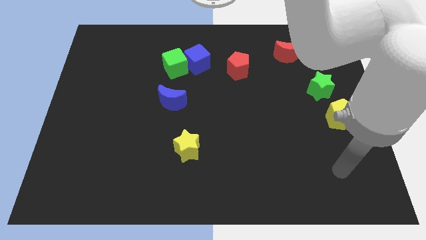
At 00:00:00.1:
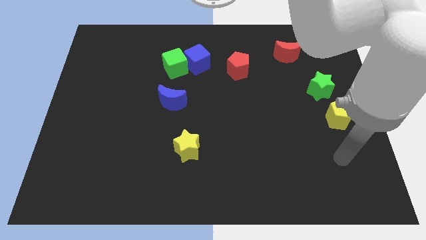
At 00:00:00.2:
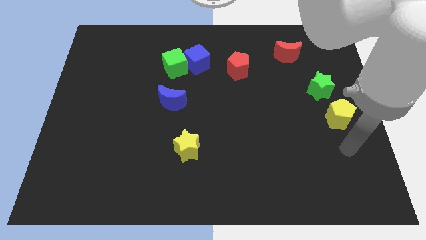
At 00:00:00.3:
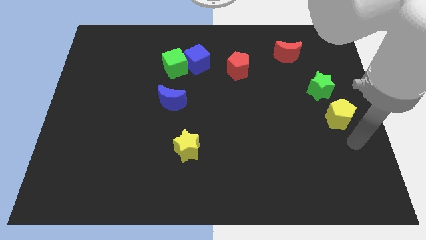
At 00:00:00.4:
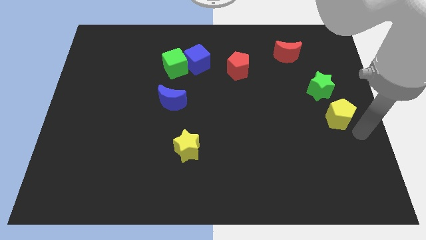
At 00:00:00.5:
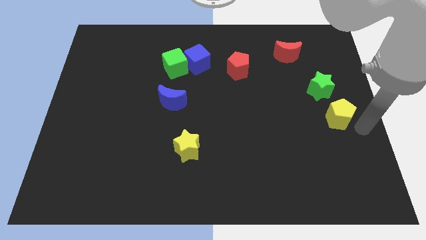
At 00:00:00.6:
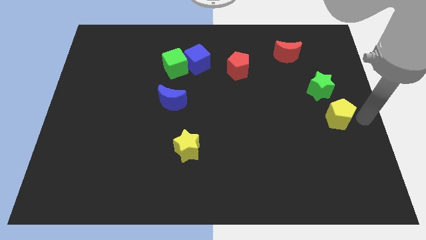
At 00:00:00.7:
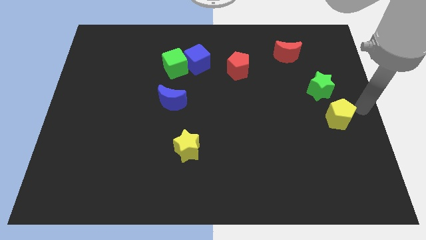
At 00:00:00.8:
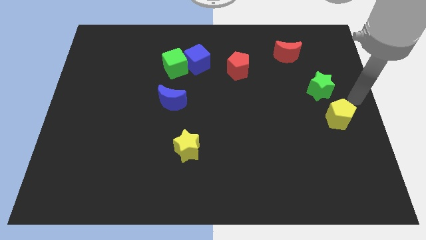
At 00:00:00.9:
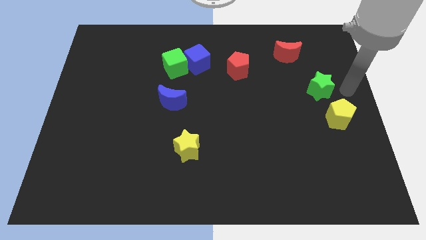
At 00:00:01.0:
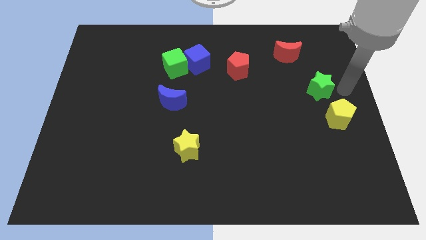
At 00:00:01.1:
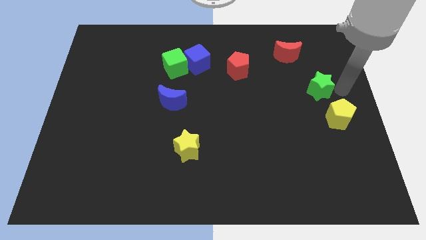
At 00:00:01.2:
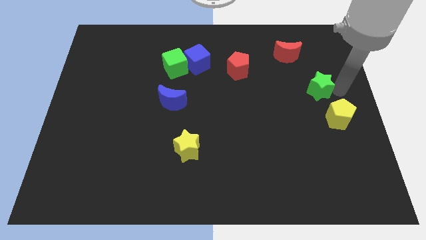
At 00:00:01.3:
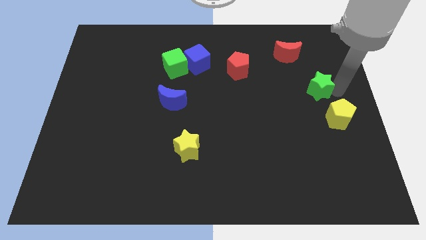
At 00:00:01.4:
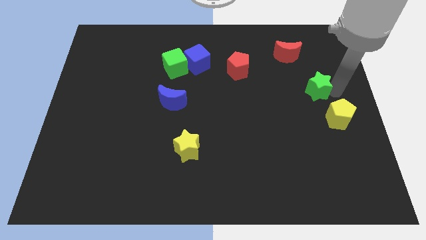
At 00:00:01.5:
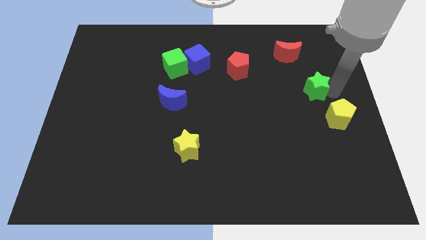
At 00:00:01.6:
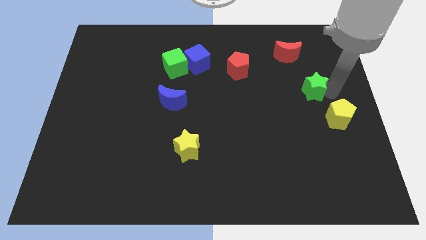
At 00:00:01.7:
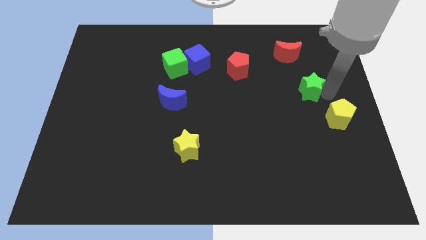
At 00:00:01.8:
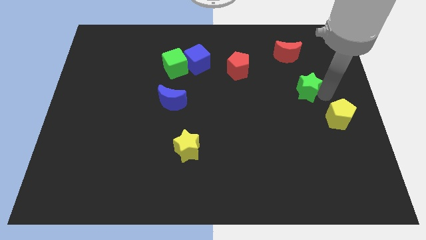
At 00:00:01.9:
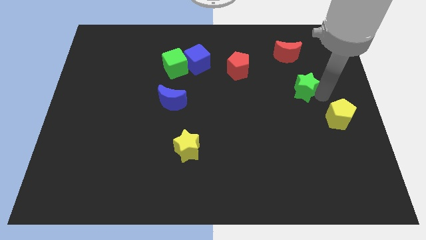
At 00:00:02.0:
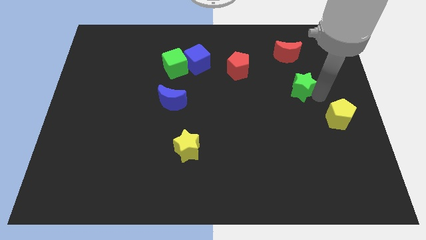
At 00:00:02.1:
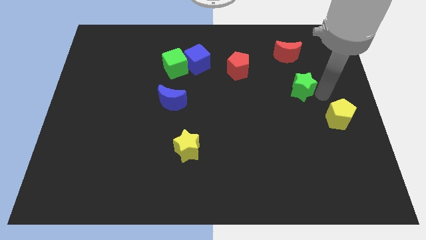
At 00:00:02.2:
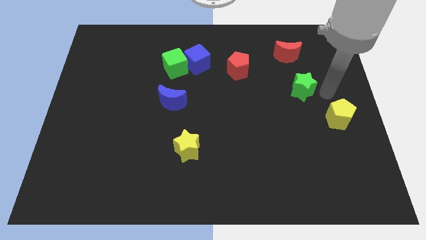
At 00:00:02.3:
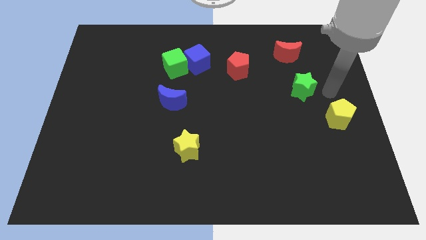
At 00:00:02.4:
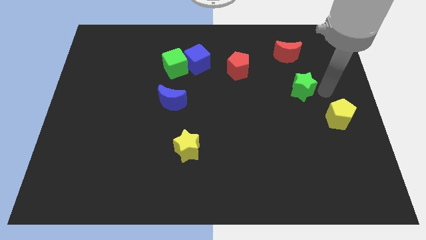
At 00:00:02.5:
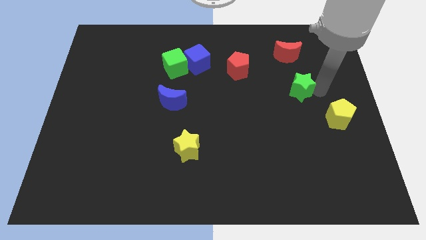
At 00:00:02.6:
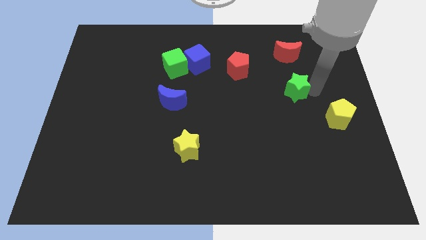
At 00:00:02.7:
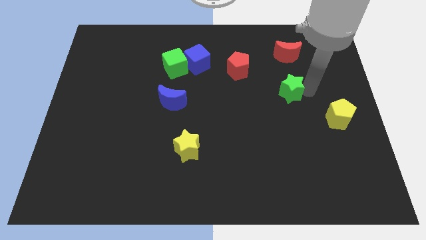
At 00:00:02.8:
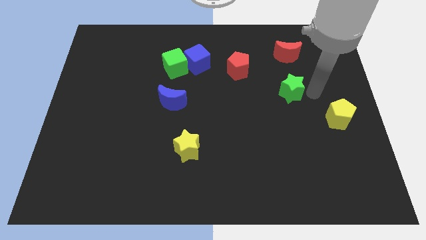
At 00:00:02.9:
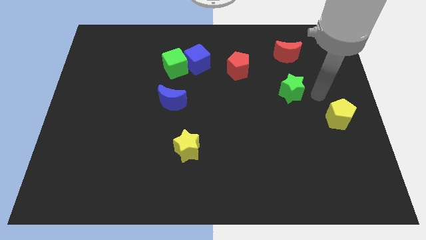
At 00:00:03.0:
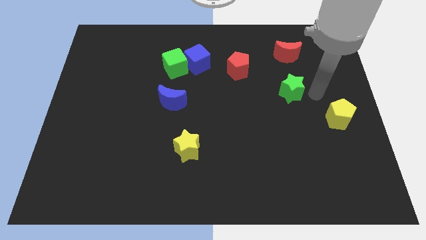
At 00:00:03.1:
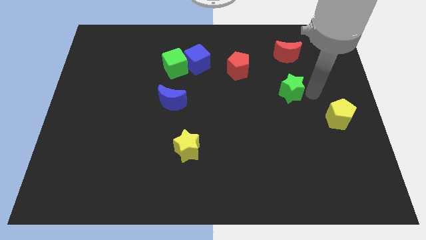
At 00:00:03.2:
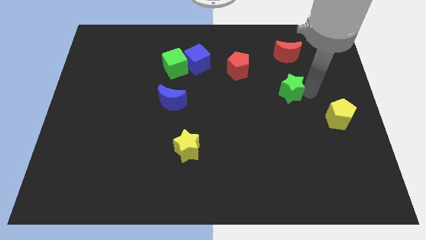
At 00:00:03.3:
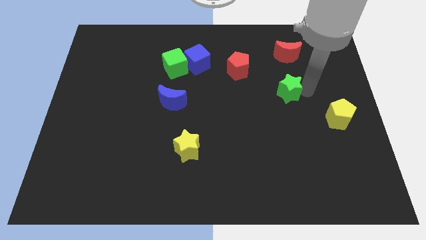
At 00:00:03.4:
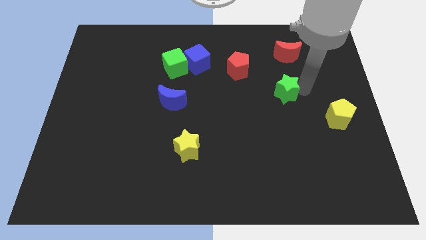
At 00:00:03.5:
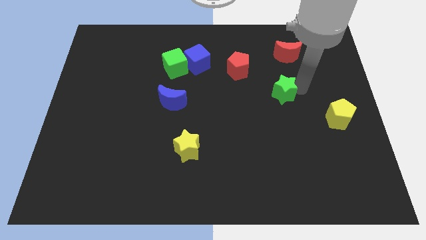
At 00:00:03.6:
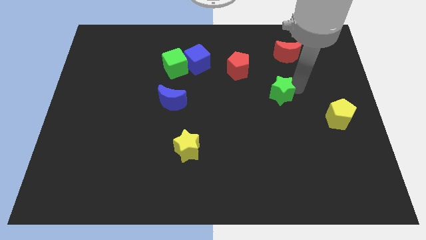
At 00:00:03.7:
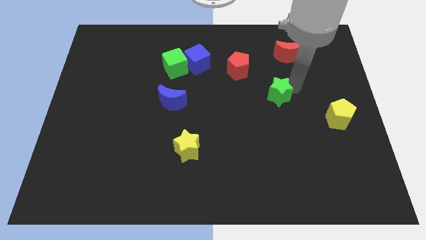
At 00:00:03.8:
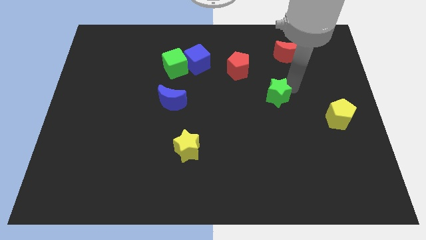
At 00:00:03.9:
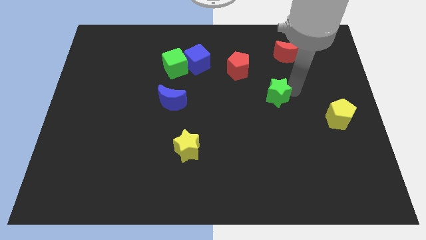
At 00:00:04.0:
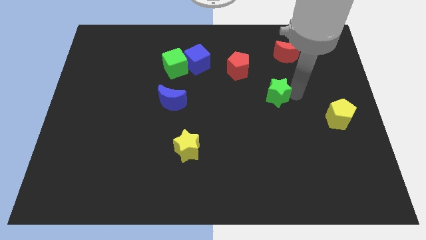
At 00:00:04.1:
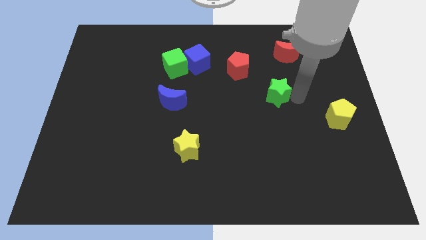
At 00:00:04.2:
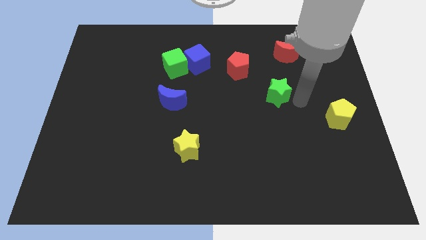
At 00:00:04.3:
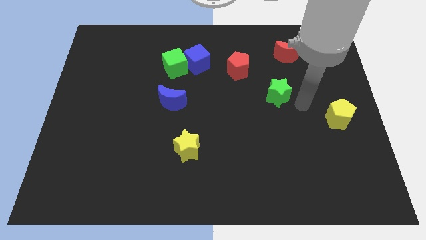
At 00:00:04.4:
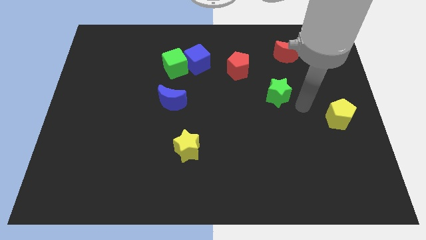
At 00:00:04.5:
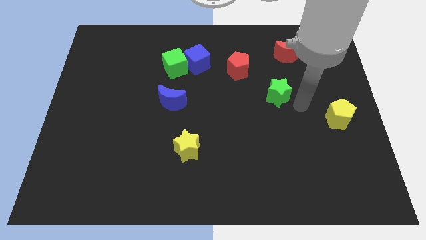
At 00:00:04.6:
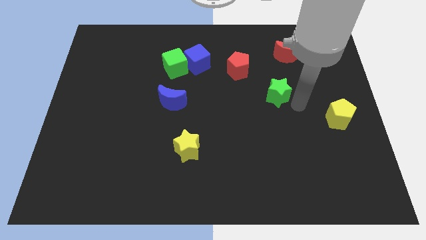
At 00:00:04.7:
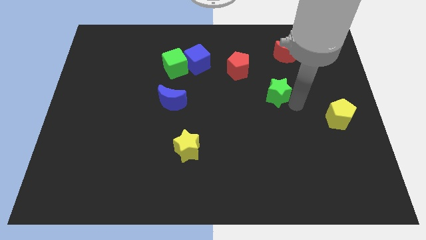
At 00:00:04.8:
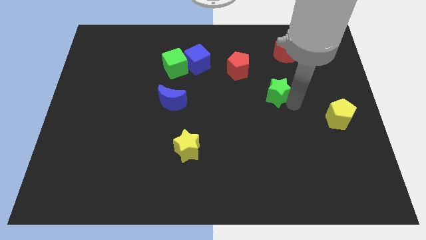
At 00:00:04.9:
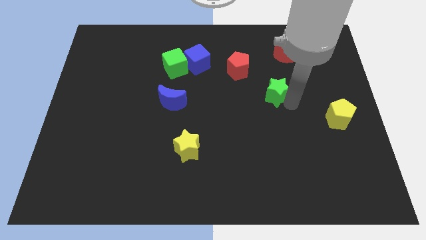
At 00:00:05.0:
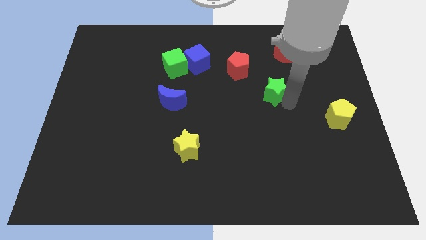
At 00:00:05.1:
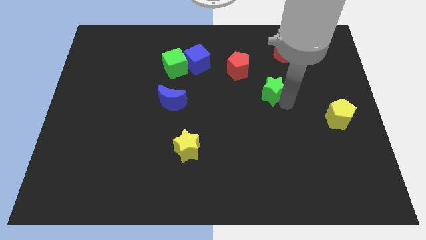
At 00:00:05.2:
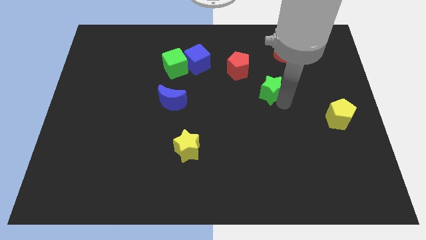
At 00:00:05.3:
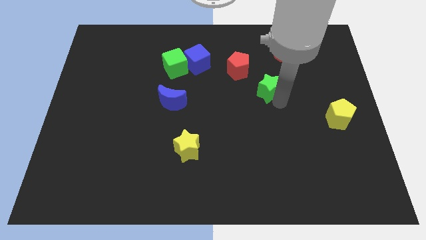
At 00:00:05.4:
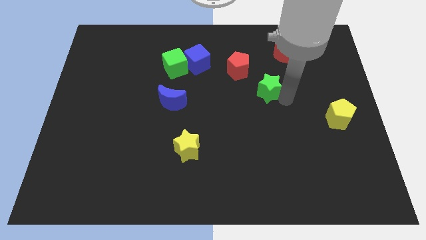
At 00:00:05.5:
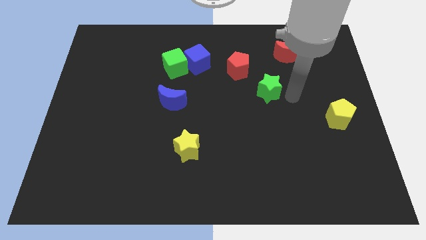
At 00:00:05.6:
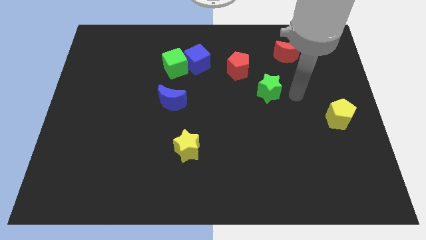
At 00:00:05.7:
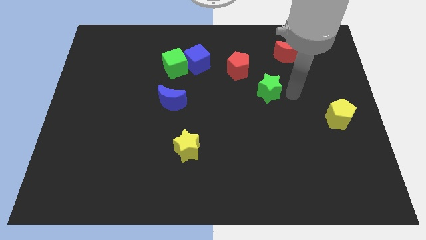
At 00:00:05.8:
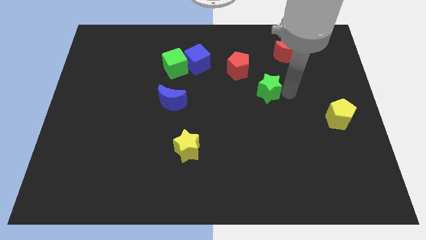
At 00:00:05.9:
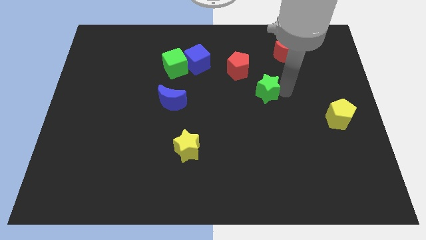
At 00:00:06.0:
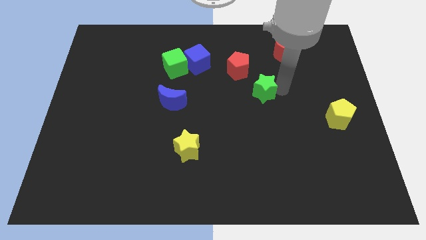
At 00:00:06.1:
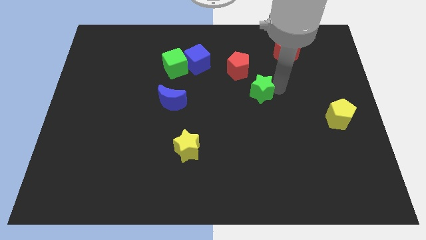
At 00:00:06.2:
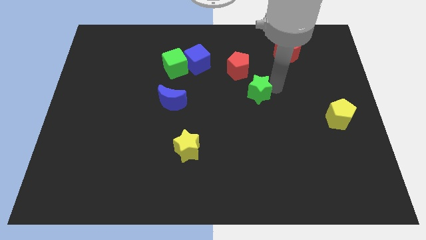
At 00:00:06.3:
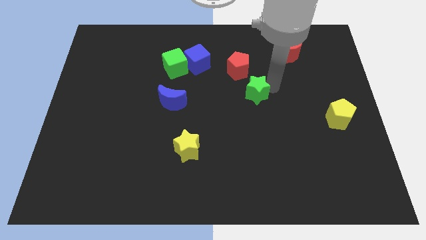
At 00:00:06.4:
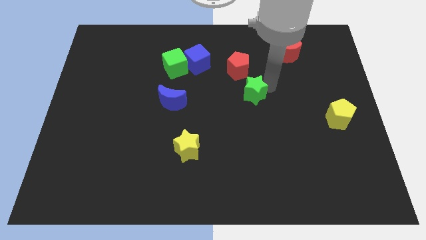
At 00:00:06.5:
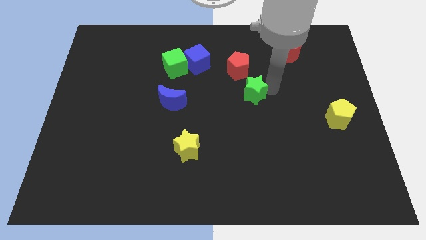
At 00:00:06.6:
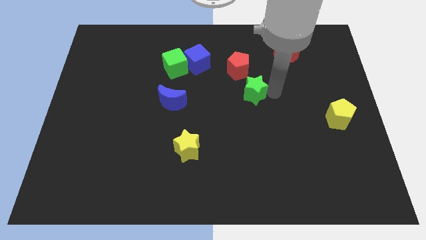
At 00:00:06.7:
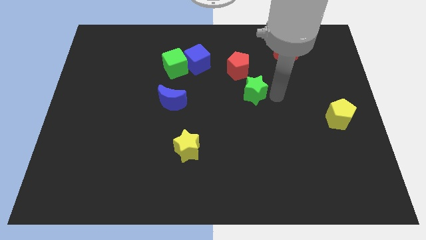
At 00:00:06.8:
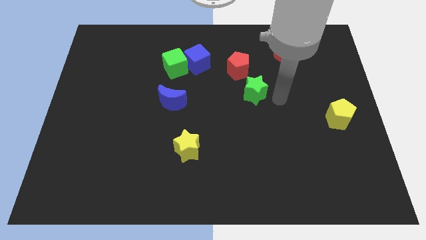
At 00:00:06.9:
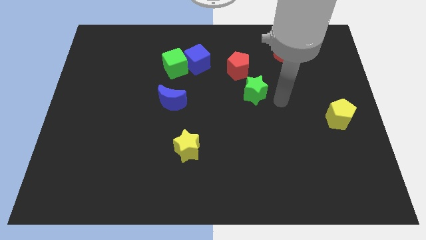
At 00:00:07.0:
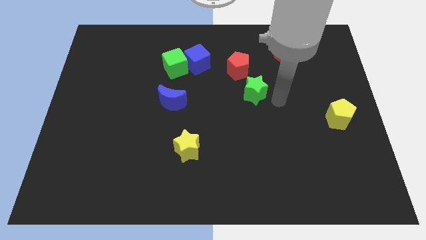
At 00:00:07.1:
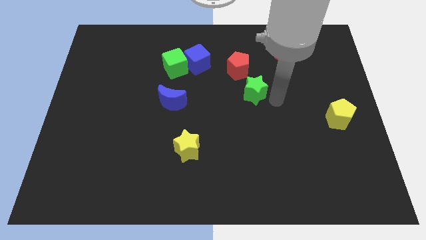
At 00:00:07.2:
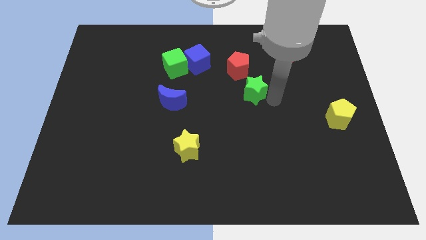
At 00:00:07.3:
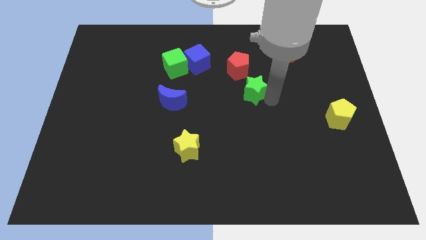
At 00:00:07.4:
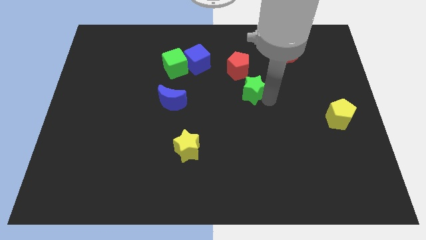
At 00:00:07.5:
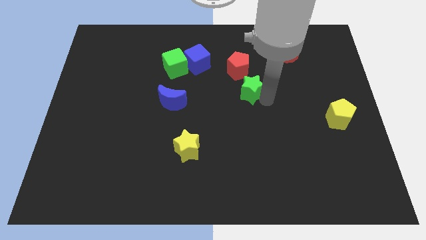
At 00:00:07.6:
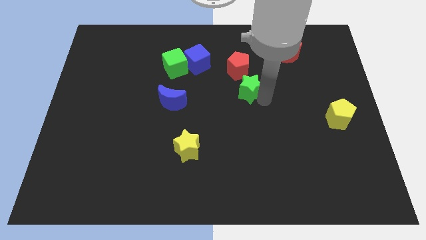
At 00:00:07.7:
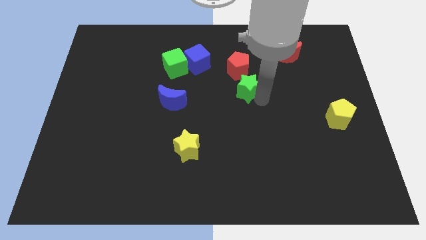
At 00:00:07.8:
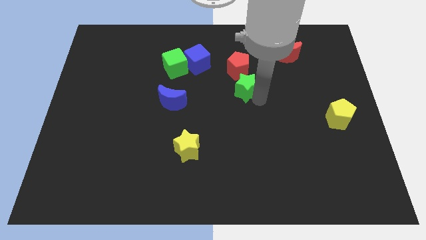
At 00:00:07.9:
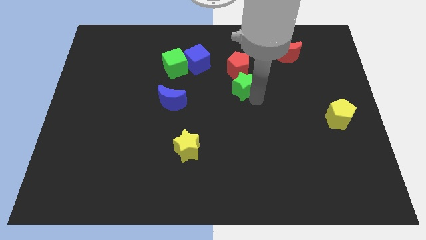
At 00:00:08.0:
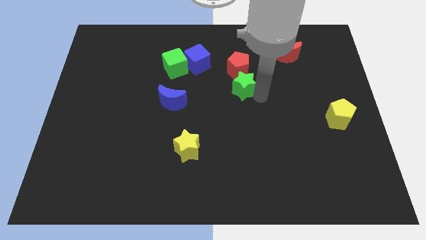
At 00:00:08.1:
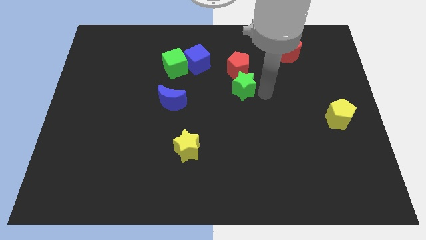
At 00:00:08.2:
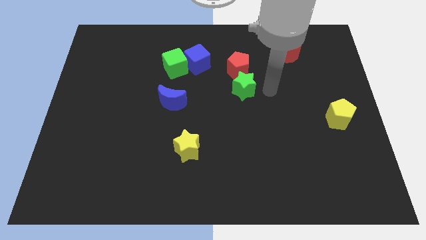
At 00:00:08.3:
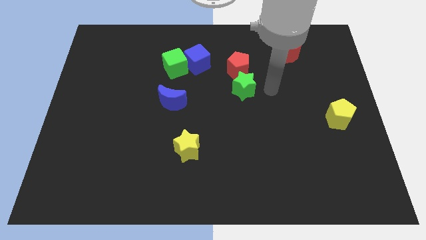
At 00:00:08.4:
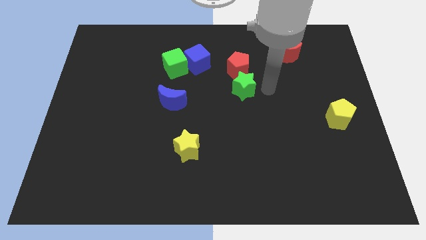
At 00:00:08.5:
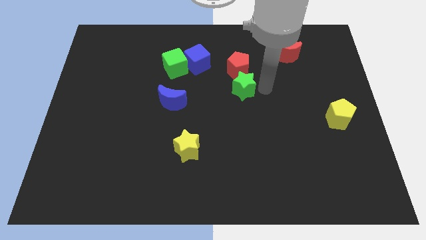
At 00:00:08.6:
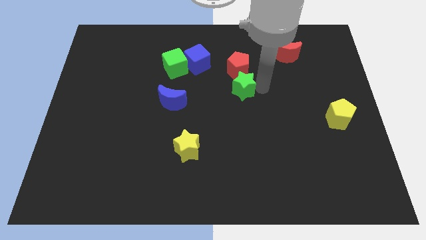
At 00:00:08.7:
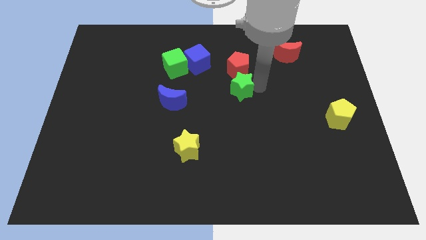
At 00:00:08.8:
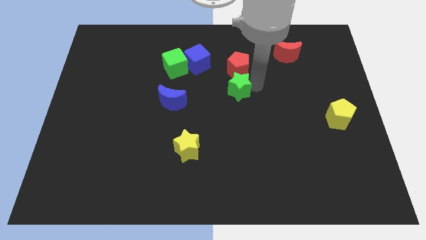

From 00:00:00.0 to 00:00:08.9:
move the green star left
